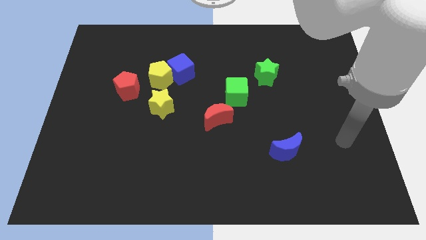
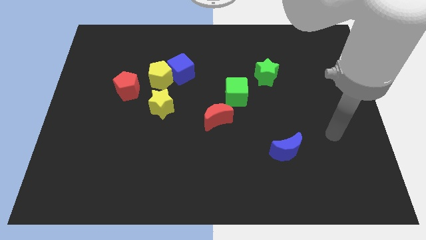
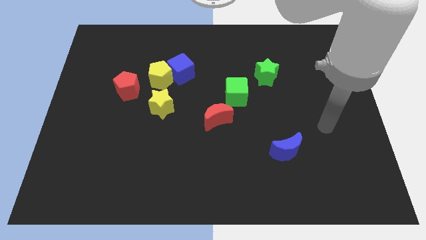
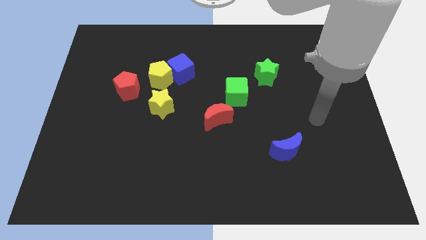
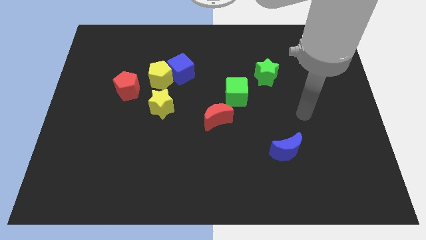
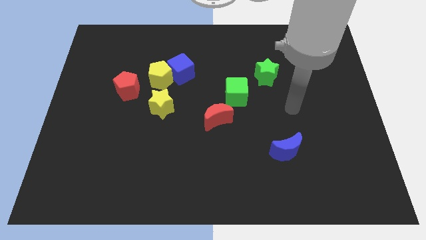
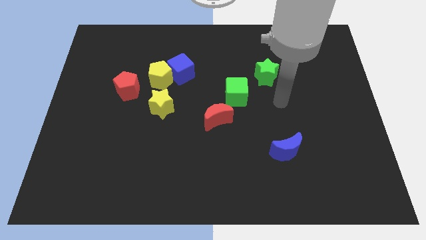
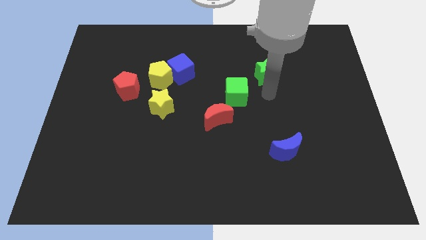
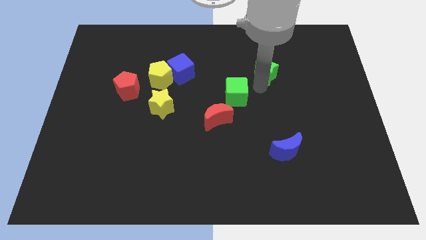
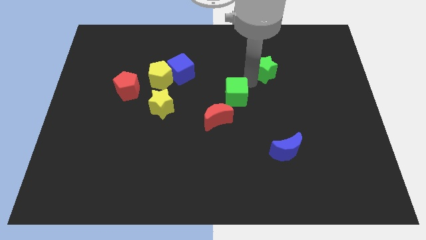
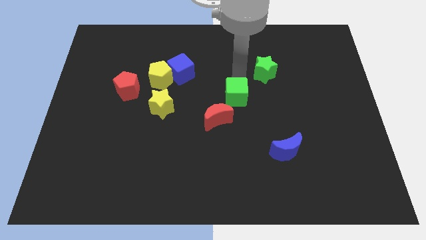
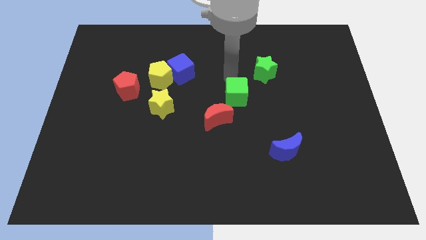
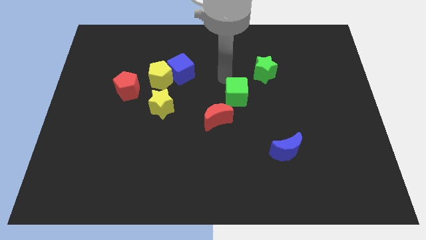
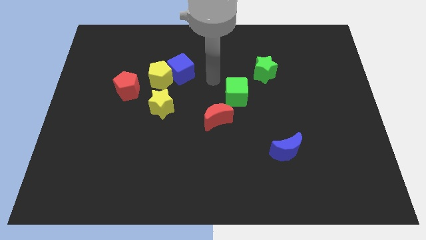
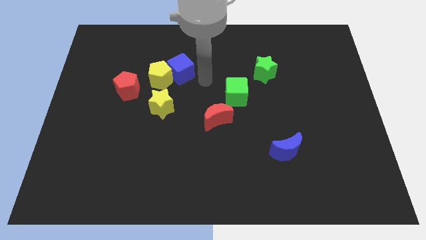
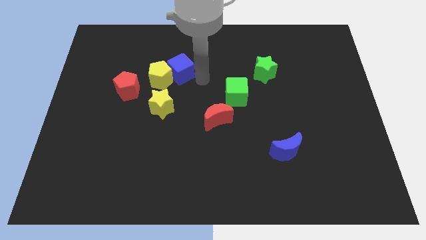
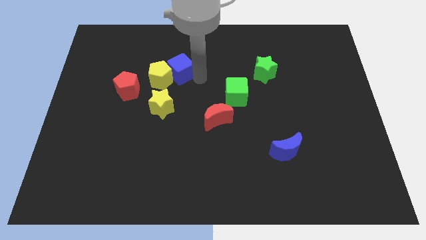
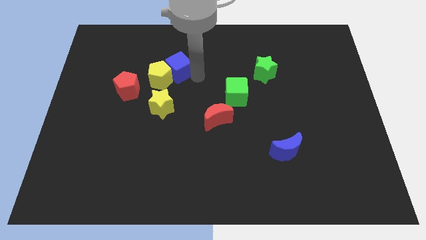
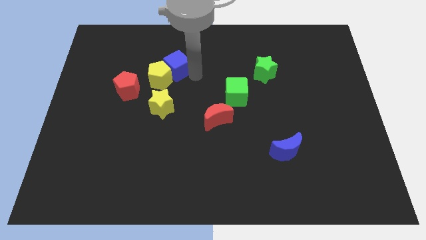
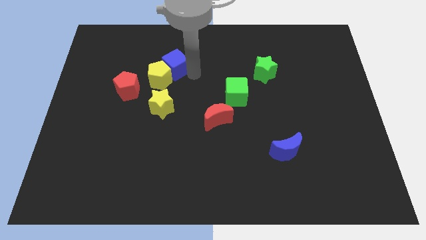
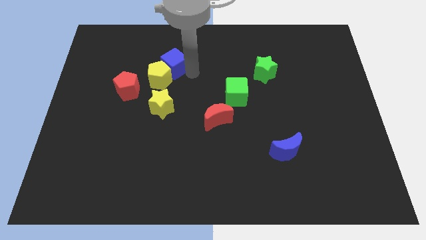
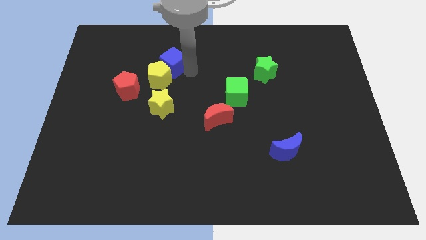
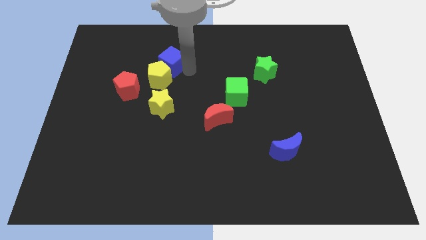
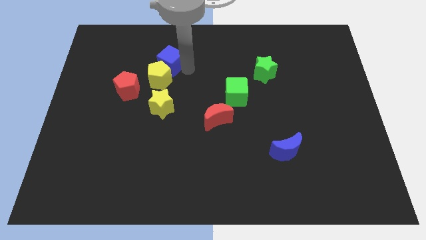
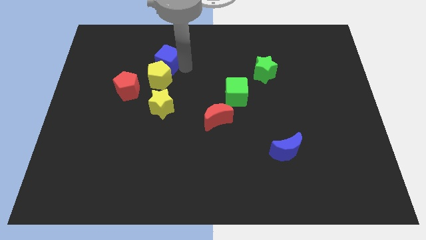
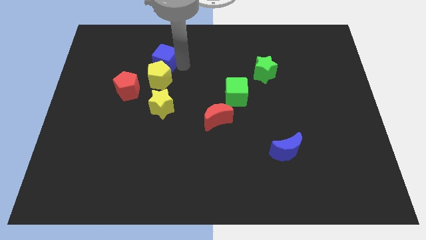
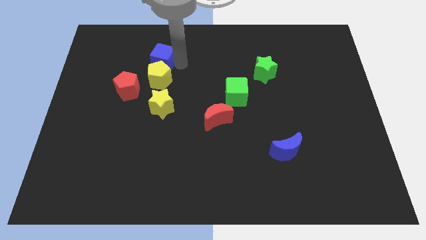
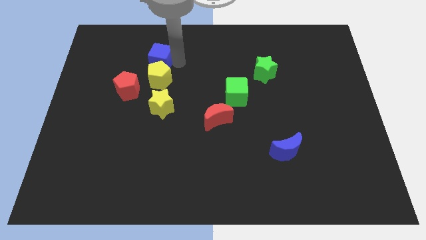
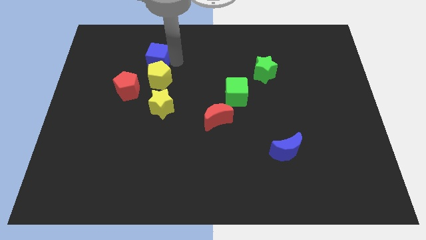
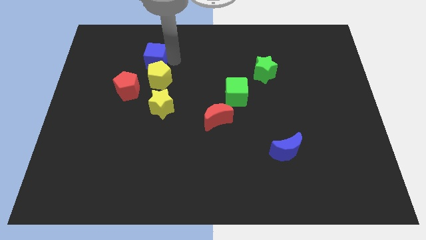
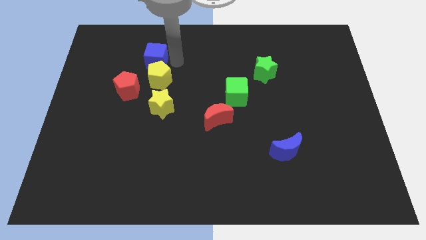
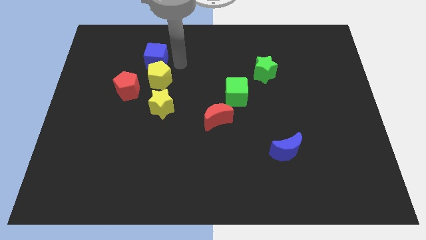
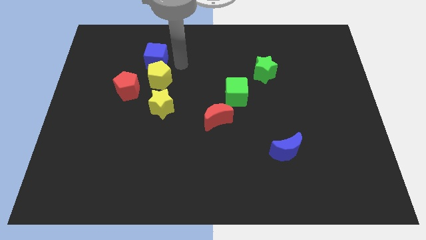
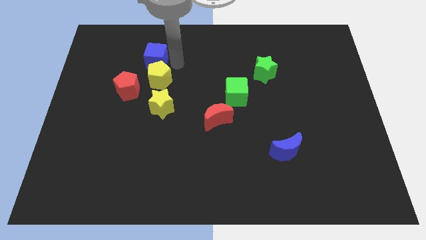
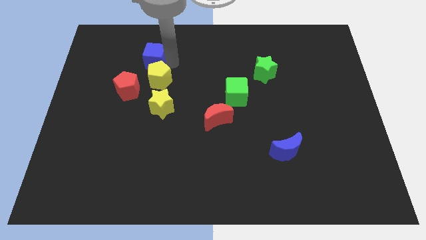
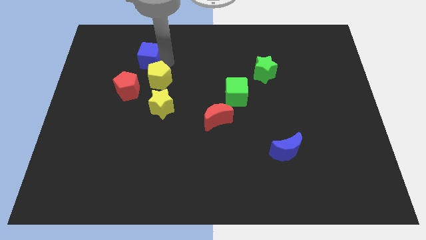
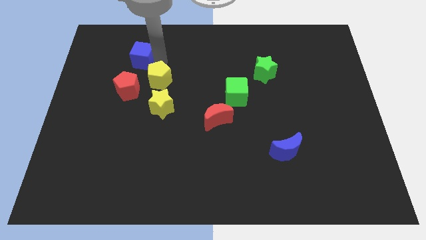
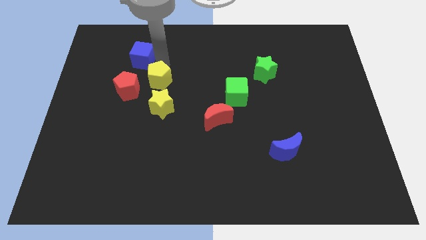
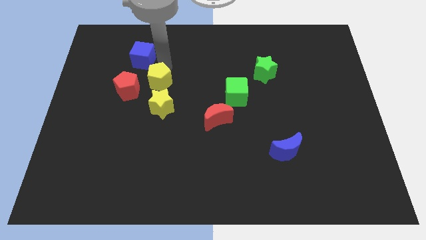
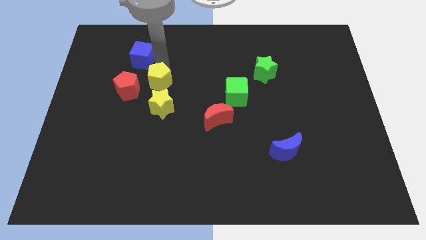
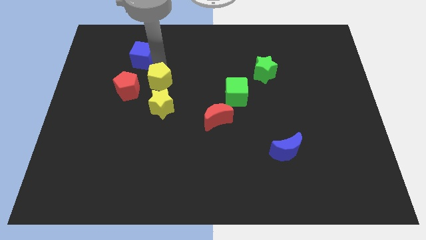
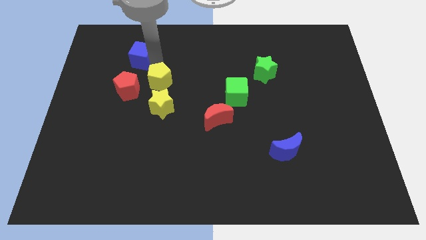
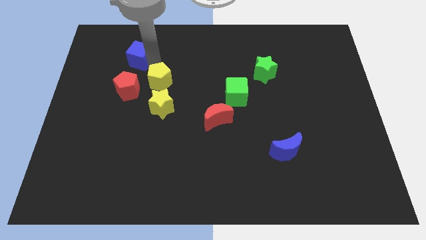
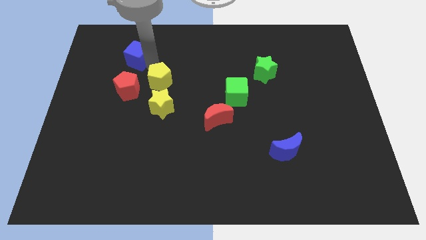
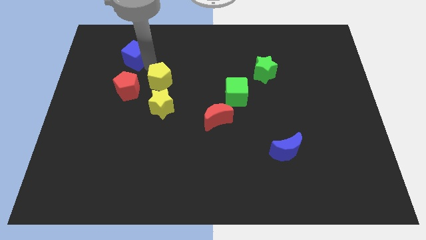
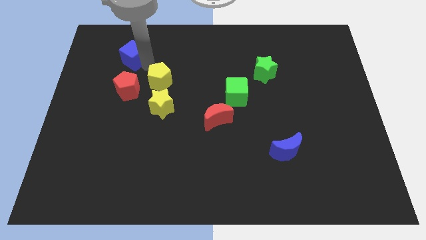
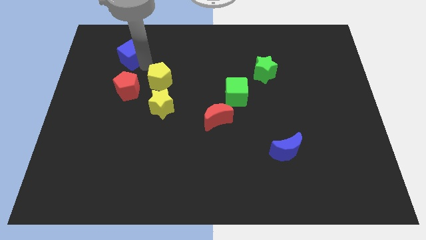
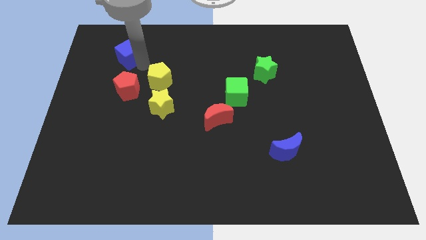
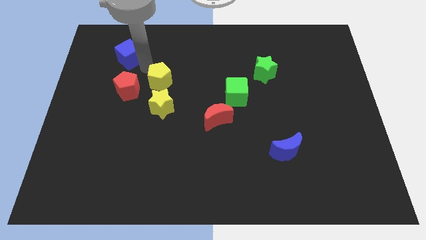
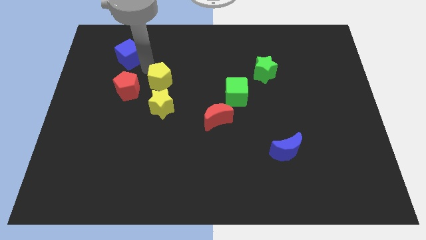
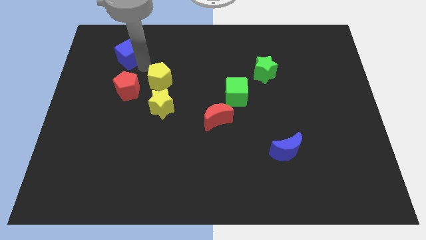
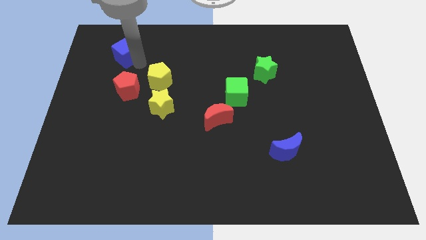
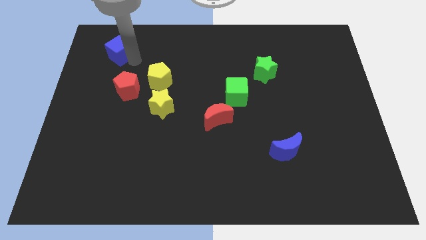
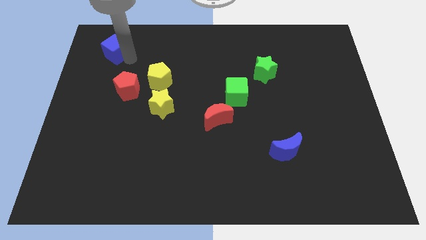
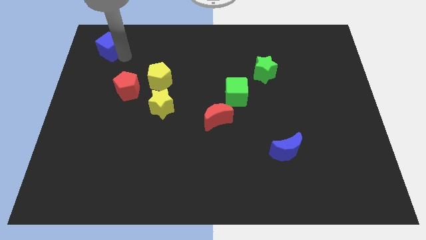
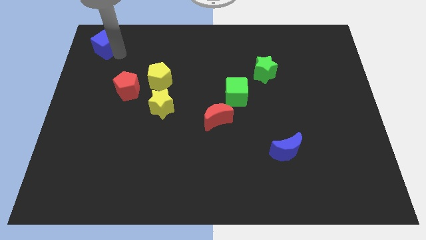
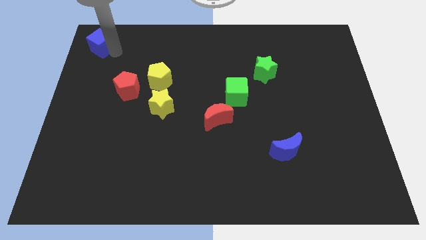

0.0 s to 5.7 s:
push the blue cube to the upper left corner
